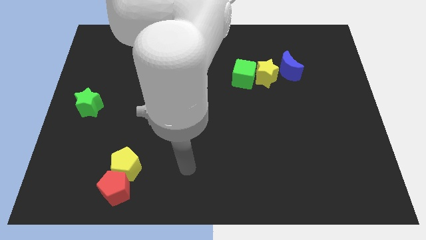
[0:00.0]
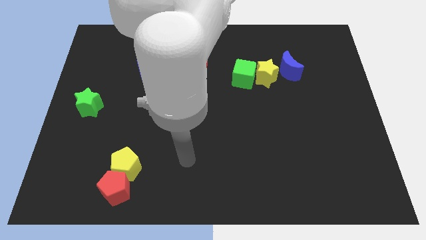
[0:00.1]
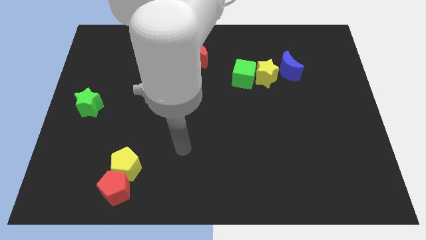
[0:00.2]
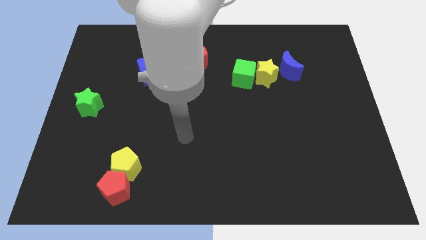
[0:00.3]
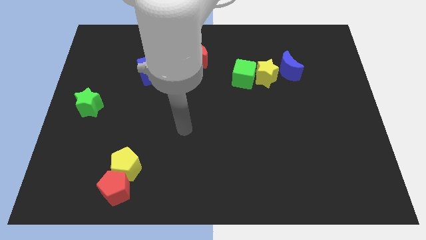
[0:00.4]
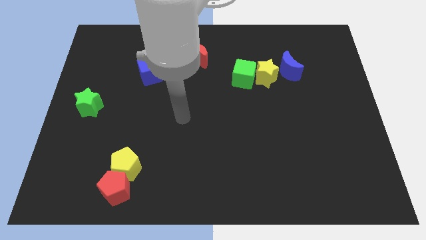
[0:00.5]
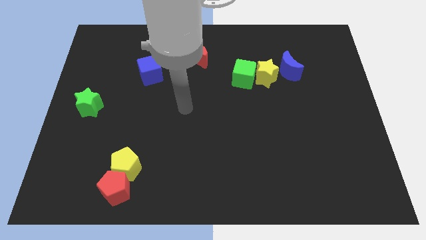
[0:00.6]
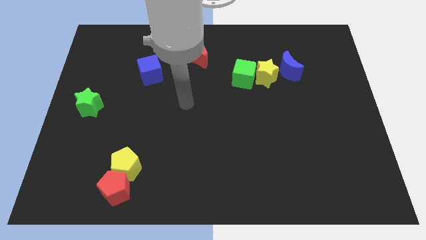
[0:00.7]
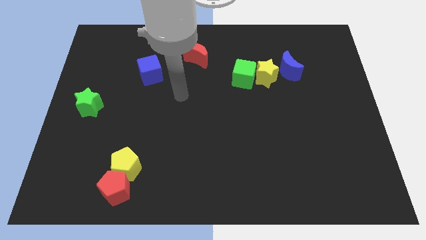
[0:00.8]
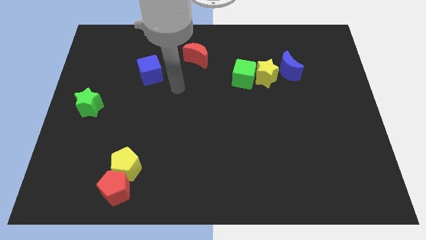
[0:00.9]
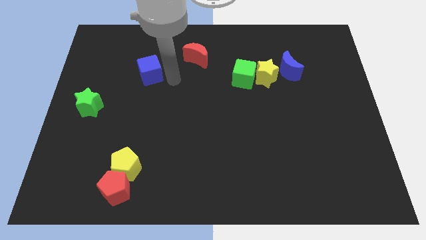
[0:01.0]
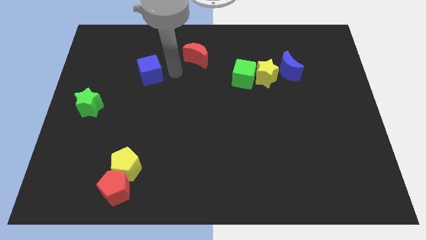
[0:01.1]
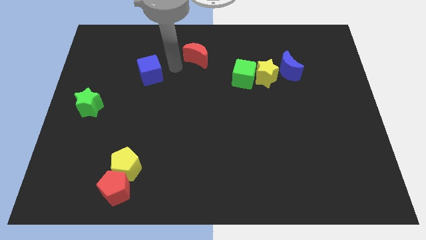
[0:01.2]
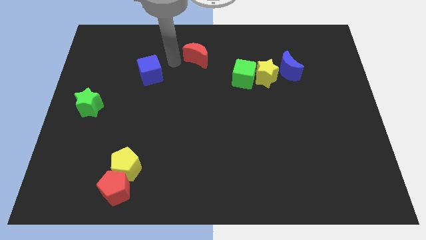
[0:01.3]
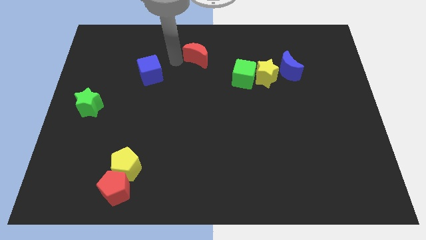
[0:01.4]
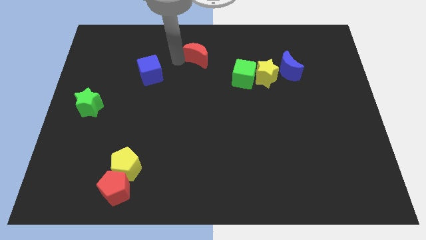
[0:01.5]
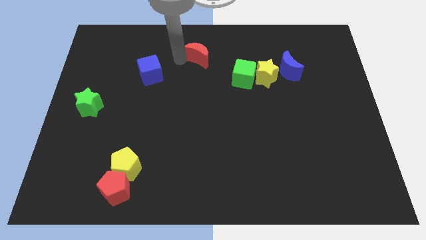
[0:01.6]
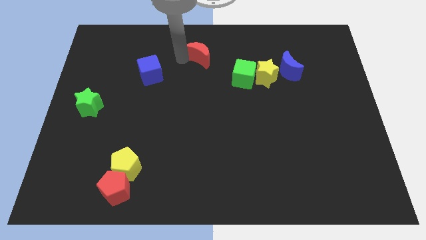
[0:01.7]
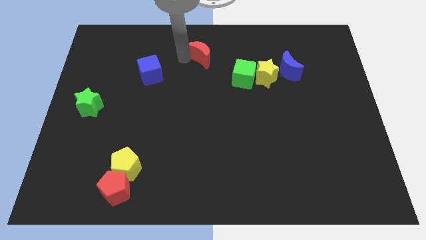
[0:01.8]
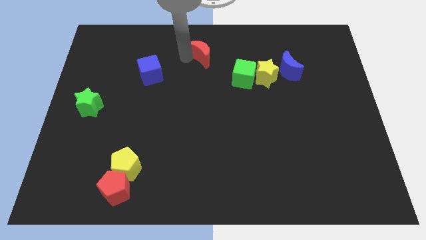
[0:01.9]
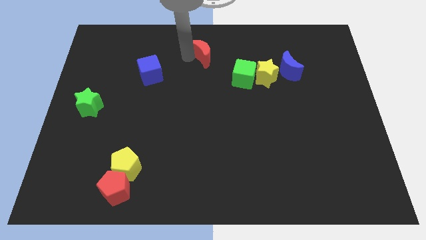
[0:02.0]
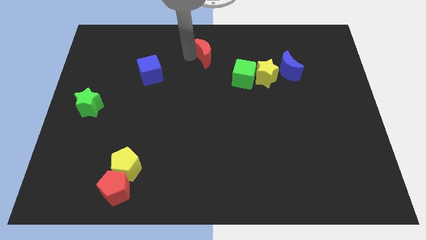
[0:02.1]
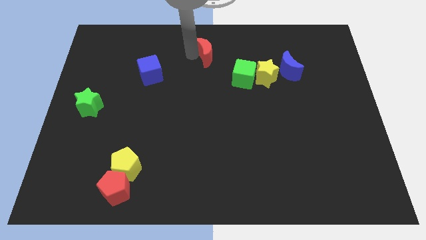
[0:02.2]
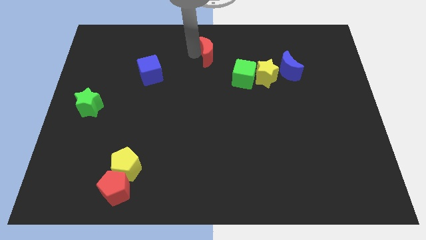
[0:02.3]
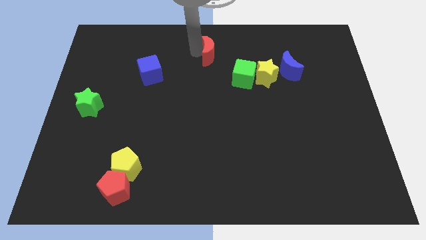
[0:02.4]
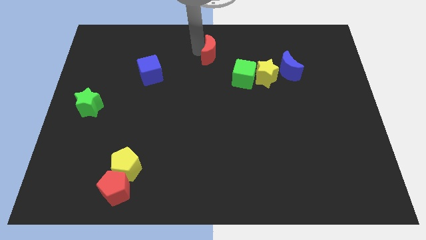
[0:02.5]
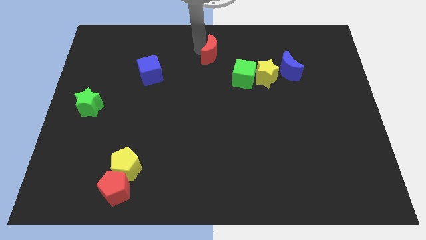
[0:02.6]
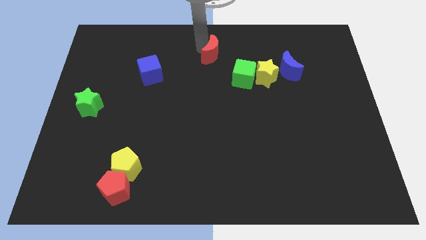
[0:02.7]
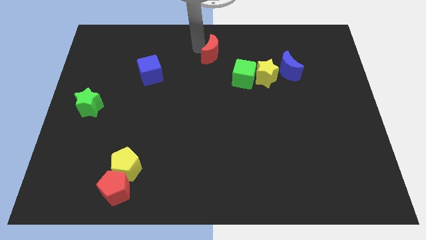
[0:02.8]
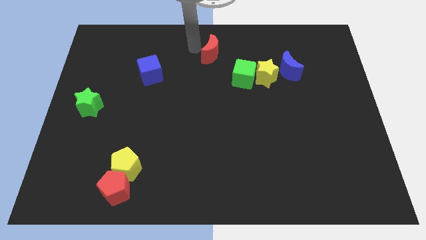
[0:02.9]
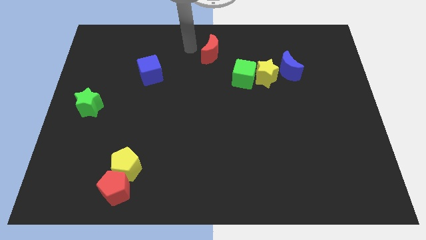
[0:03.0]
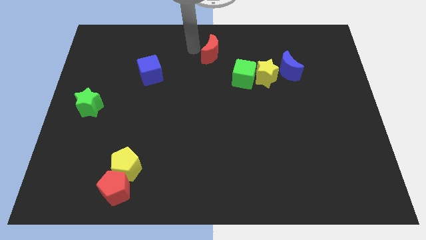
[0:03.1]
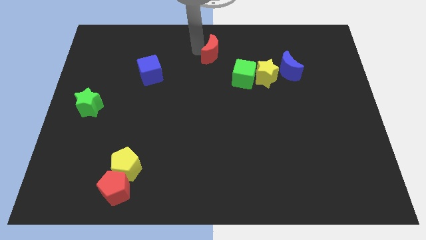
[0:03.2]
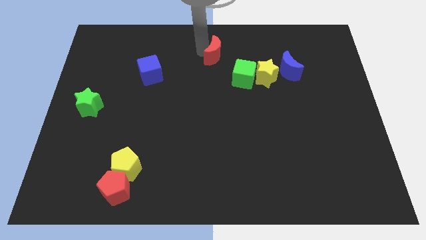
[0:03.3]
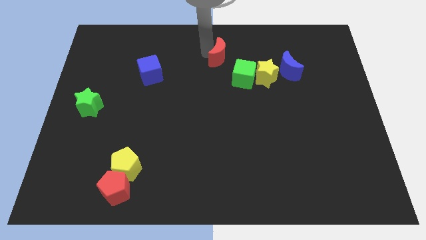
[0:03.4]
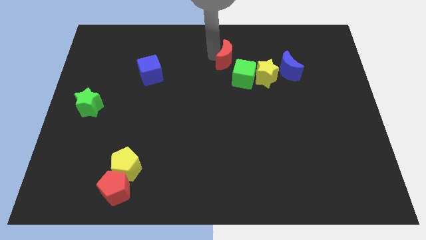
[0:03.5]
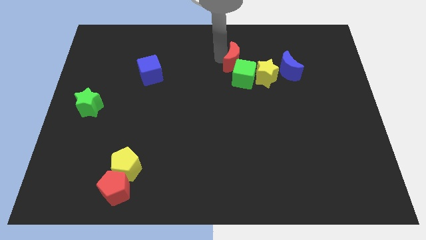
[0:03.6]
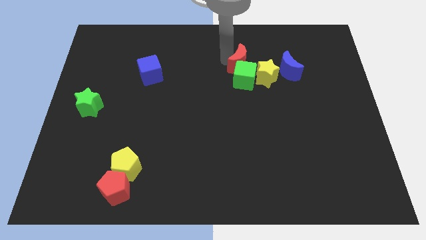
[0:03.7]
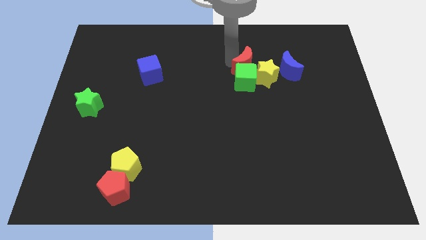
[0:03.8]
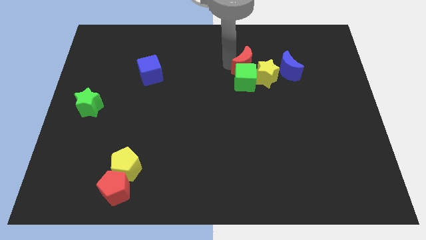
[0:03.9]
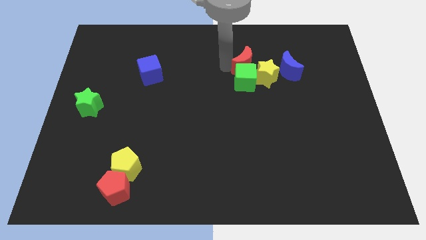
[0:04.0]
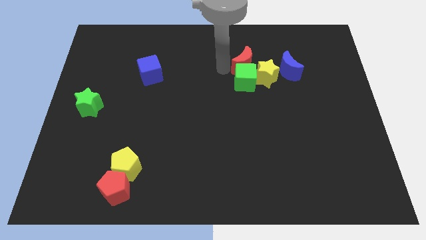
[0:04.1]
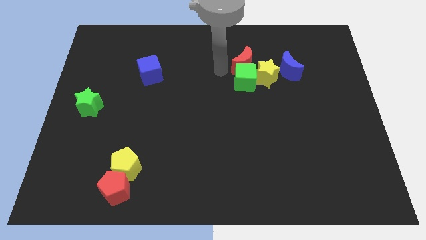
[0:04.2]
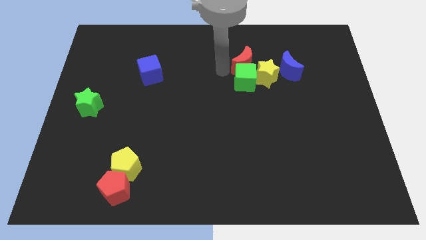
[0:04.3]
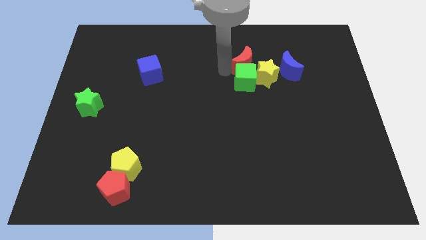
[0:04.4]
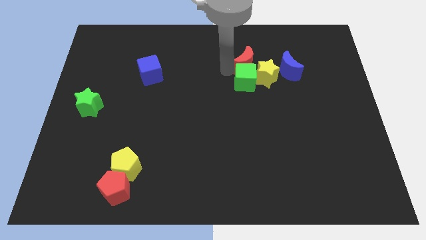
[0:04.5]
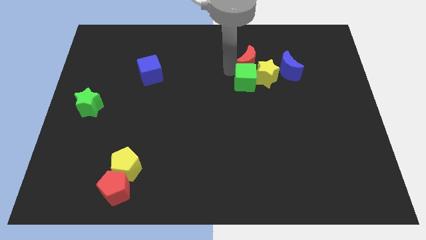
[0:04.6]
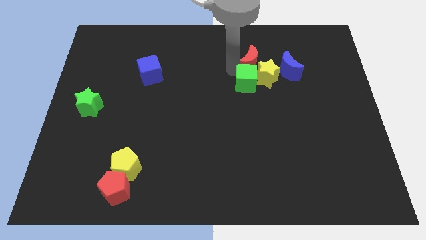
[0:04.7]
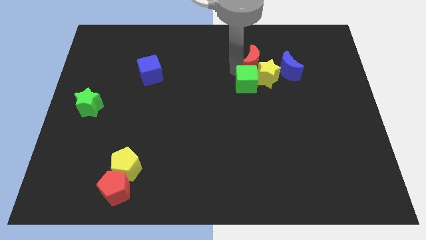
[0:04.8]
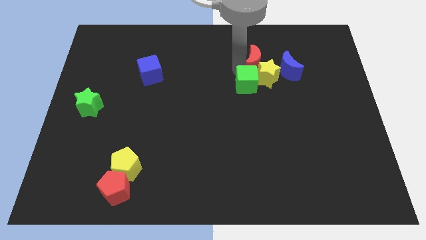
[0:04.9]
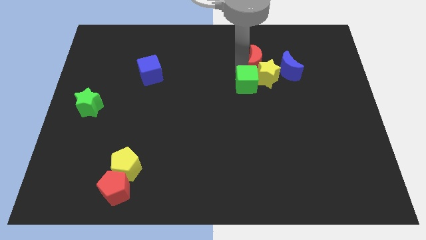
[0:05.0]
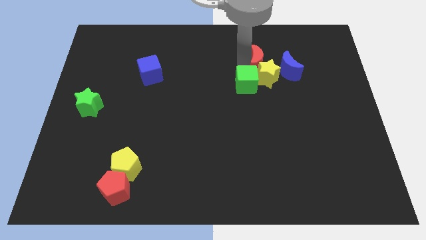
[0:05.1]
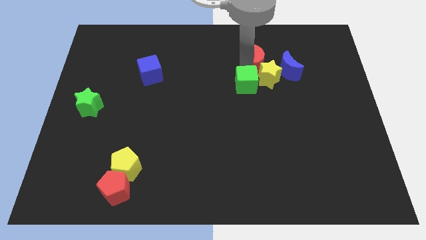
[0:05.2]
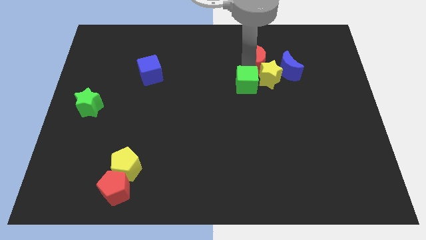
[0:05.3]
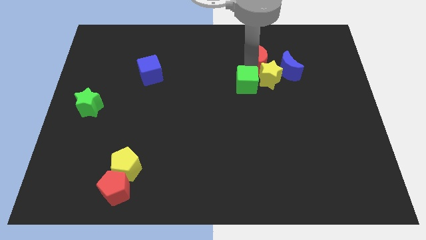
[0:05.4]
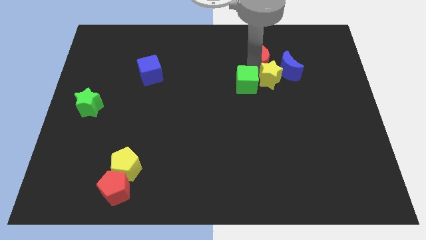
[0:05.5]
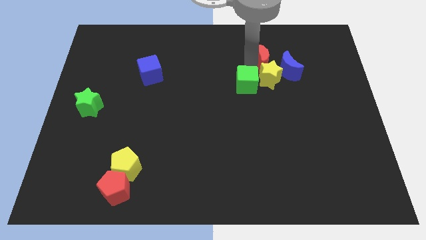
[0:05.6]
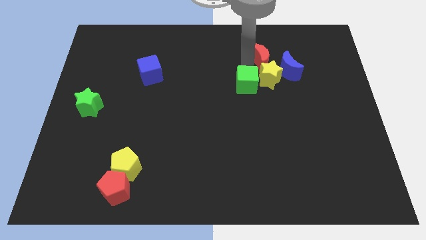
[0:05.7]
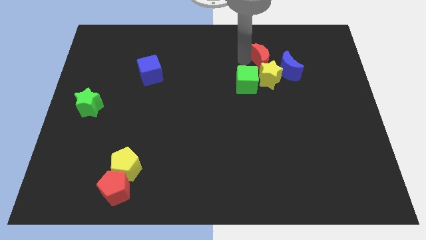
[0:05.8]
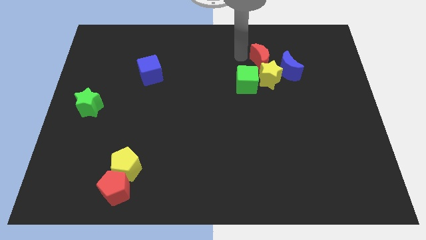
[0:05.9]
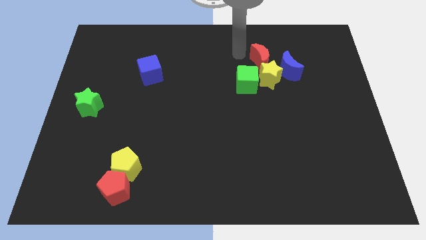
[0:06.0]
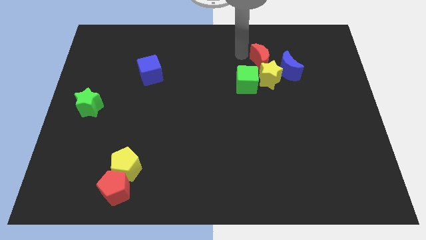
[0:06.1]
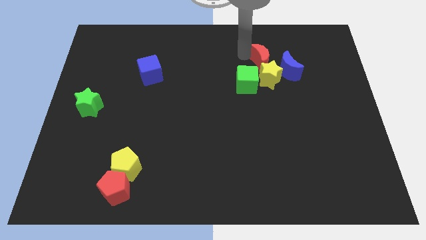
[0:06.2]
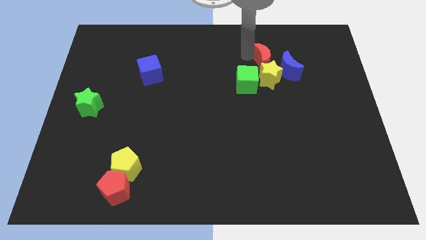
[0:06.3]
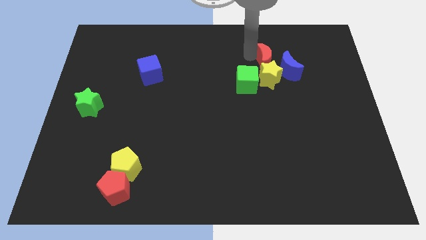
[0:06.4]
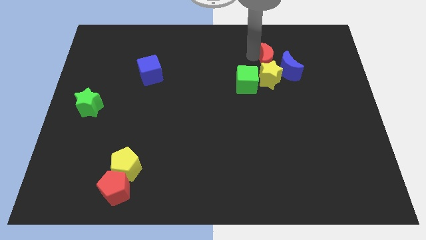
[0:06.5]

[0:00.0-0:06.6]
push the red moon to the blue moon
